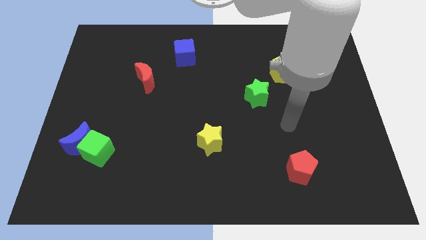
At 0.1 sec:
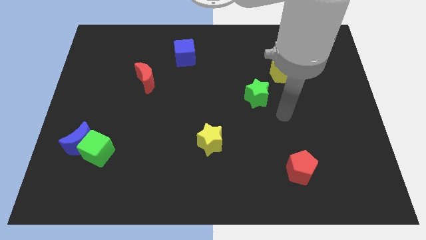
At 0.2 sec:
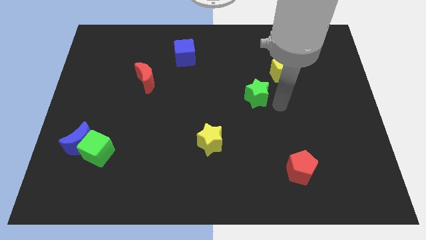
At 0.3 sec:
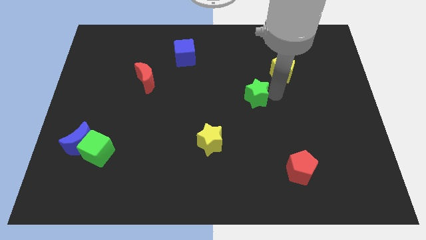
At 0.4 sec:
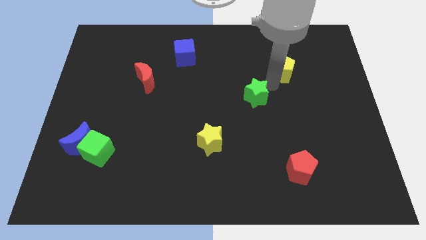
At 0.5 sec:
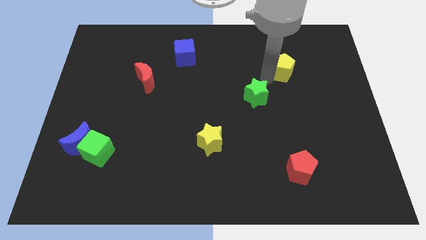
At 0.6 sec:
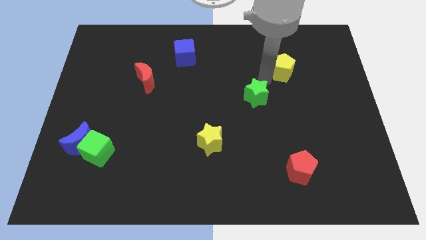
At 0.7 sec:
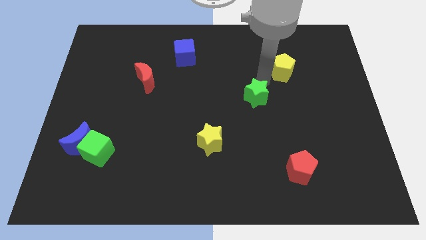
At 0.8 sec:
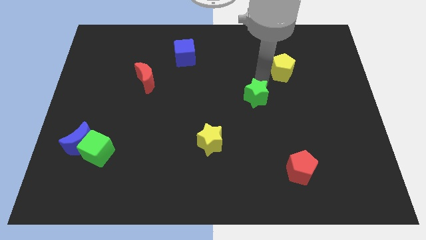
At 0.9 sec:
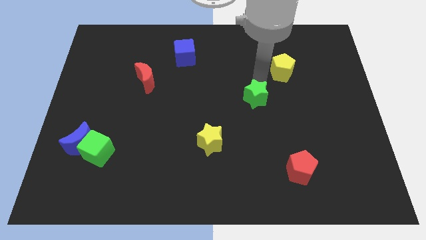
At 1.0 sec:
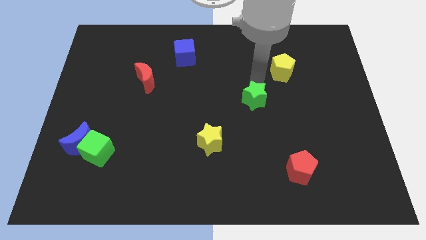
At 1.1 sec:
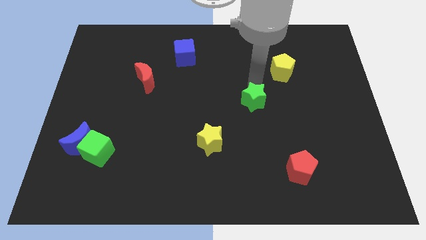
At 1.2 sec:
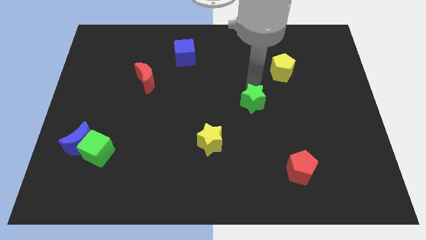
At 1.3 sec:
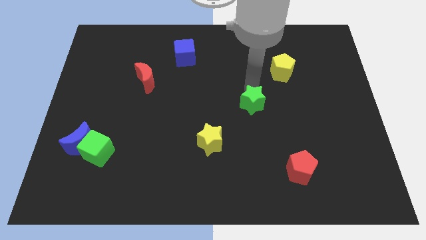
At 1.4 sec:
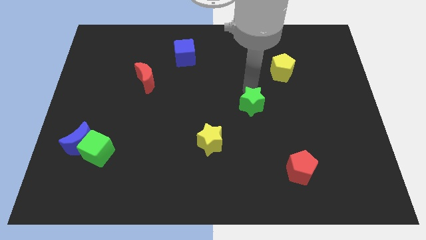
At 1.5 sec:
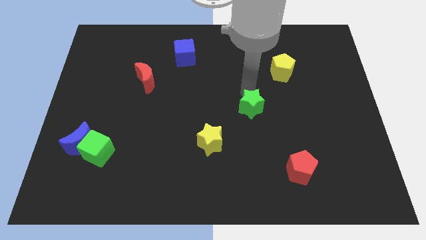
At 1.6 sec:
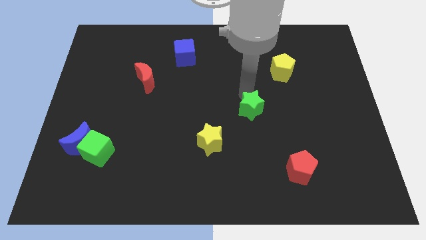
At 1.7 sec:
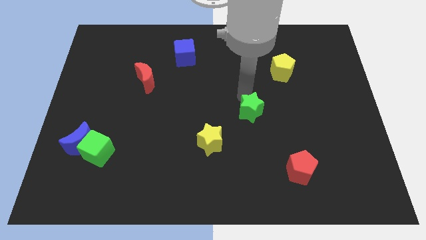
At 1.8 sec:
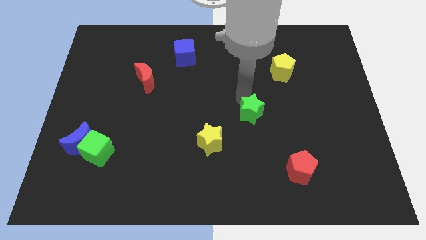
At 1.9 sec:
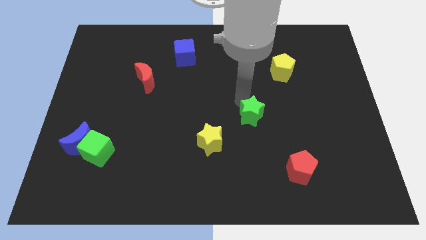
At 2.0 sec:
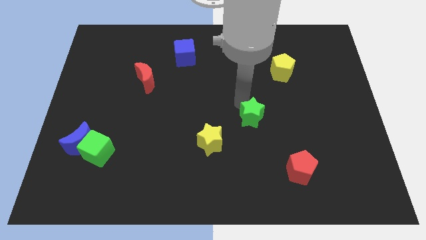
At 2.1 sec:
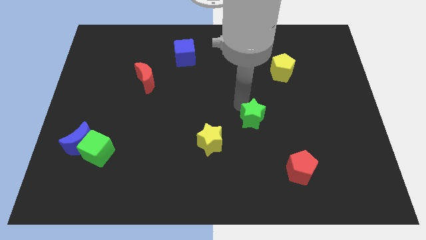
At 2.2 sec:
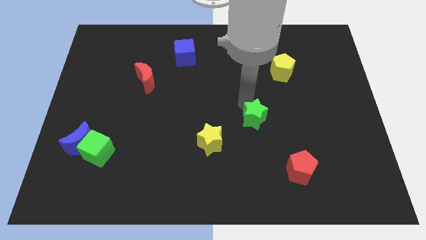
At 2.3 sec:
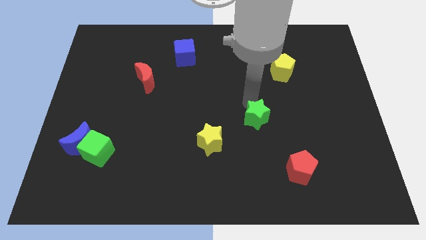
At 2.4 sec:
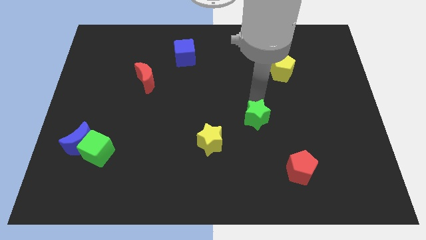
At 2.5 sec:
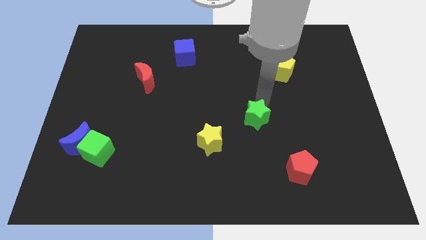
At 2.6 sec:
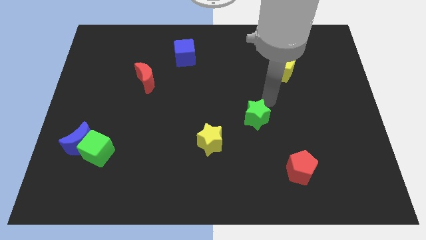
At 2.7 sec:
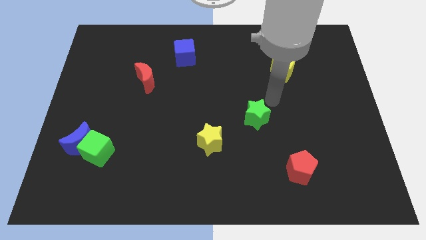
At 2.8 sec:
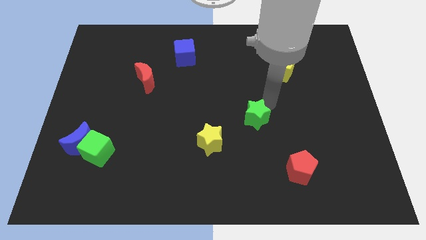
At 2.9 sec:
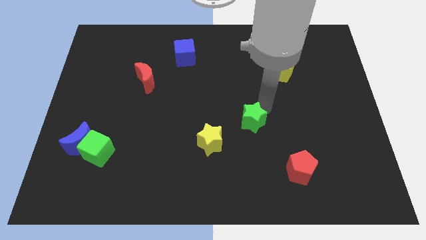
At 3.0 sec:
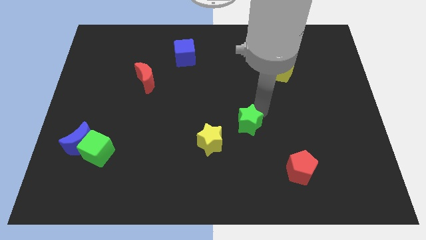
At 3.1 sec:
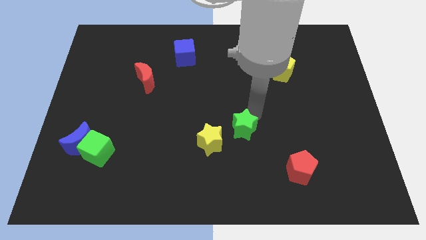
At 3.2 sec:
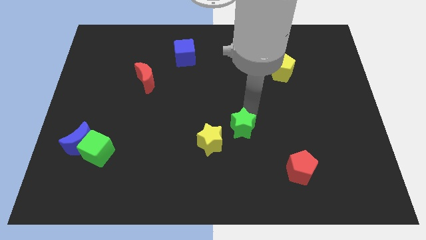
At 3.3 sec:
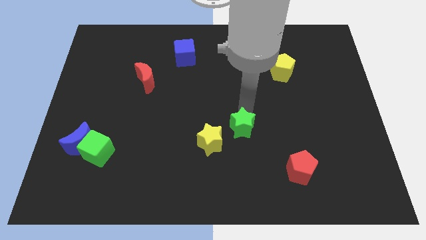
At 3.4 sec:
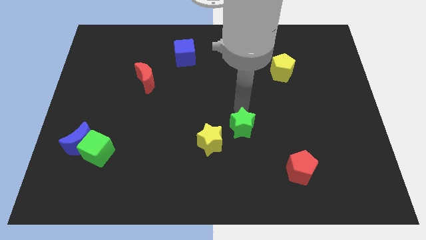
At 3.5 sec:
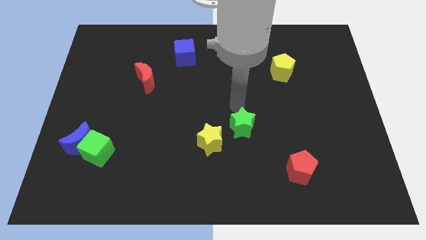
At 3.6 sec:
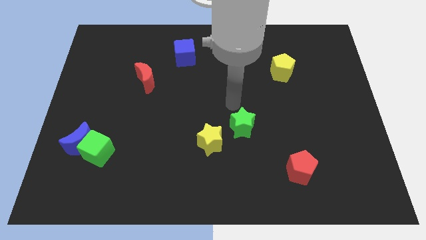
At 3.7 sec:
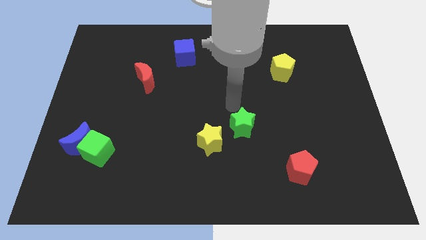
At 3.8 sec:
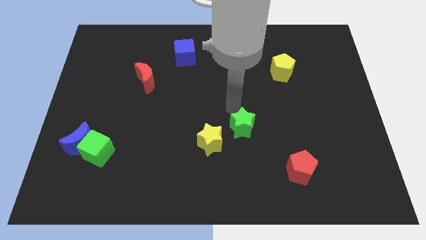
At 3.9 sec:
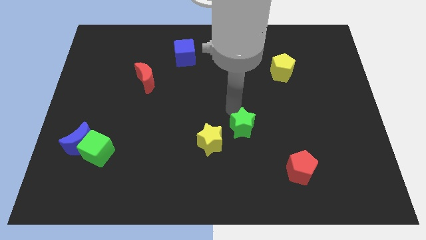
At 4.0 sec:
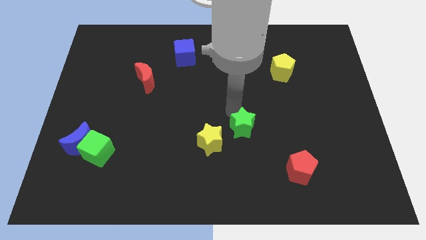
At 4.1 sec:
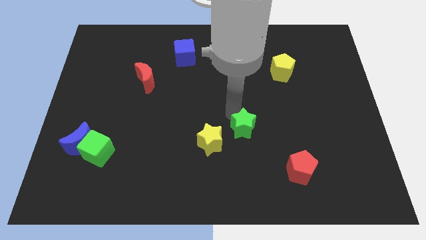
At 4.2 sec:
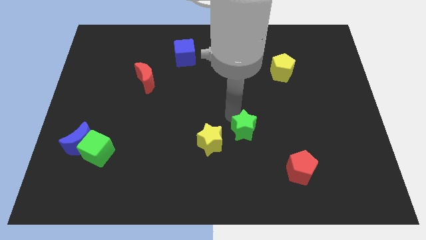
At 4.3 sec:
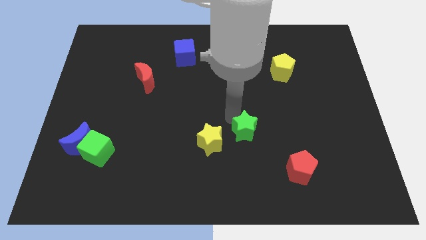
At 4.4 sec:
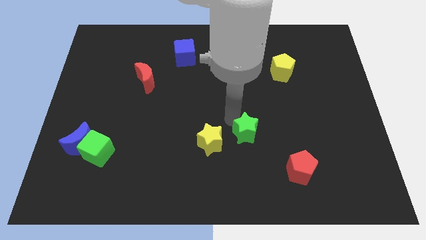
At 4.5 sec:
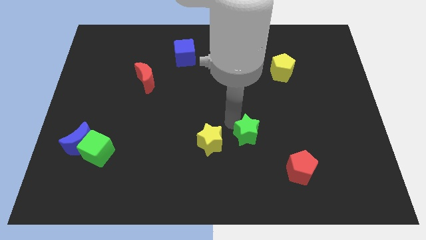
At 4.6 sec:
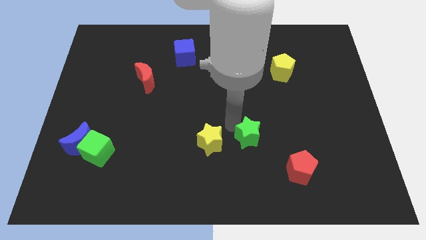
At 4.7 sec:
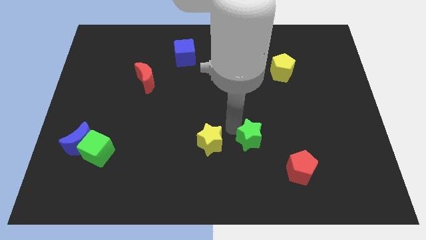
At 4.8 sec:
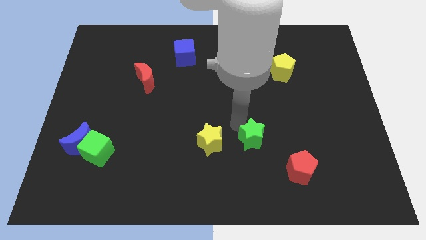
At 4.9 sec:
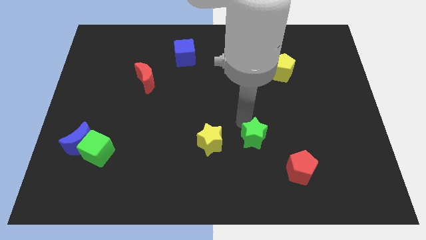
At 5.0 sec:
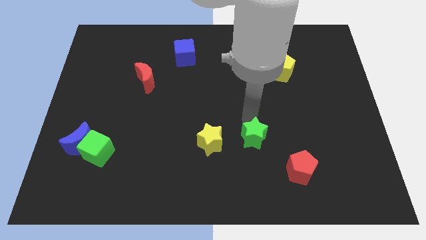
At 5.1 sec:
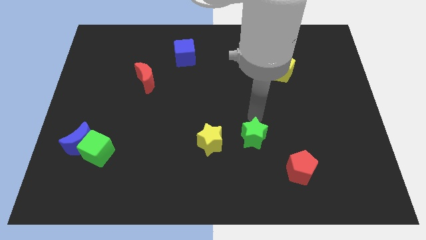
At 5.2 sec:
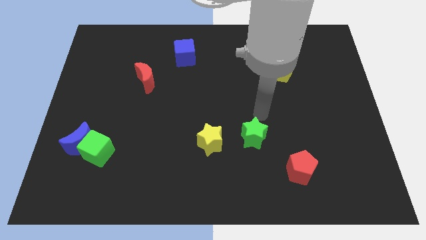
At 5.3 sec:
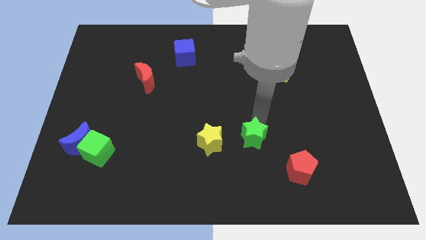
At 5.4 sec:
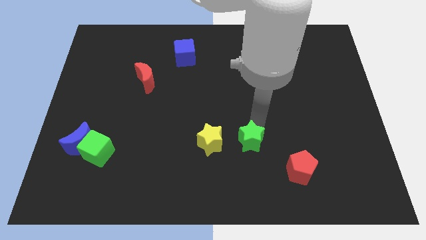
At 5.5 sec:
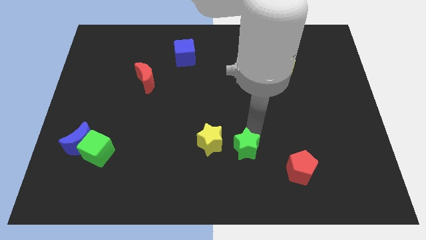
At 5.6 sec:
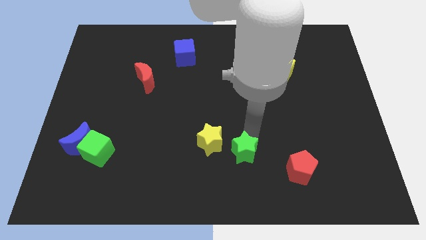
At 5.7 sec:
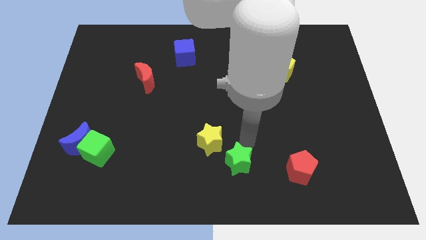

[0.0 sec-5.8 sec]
move the green star to the bottom side

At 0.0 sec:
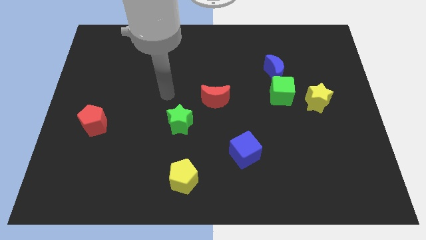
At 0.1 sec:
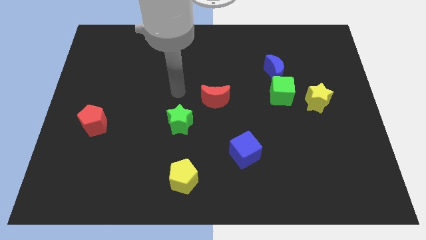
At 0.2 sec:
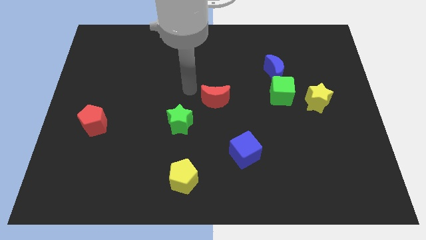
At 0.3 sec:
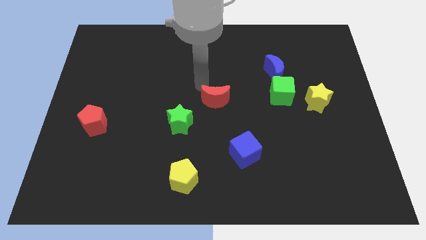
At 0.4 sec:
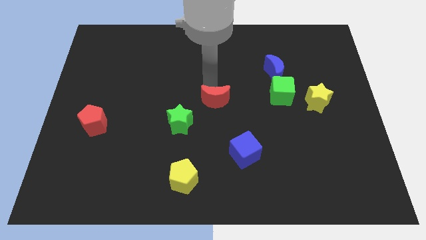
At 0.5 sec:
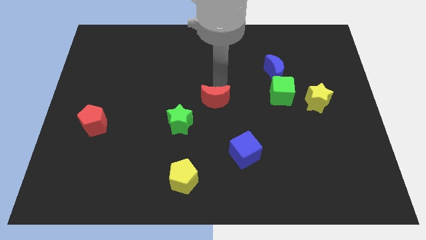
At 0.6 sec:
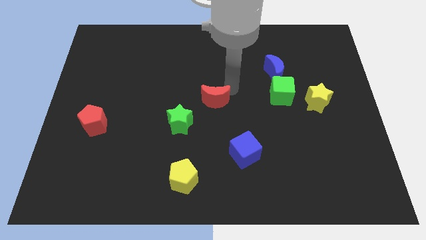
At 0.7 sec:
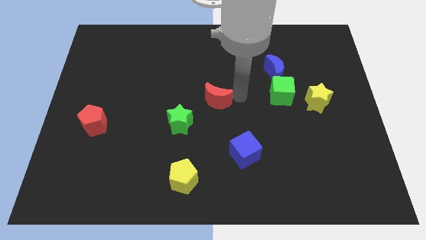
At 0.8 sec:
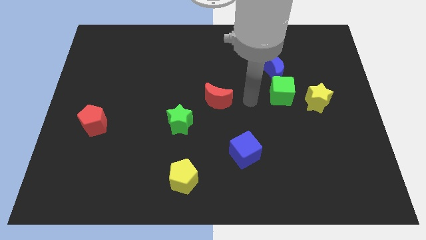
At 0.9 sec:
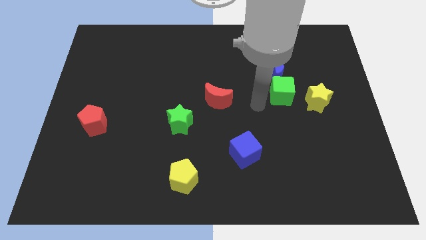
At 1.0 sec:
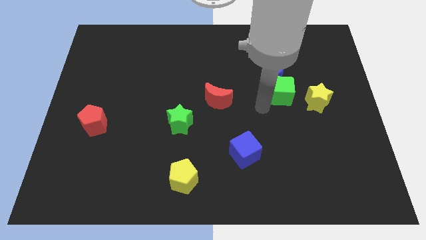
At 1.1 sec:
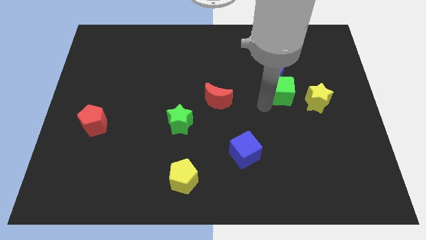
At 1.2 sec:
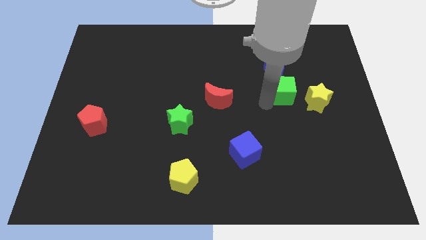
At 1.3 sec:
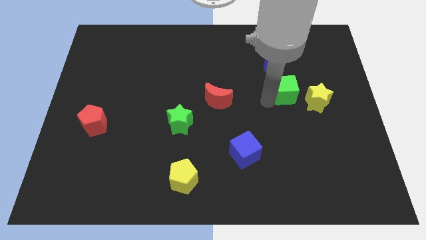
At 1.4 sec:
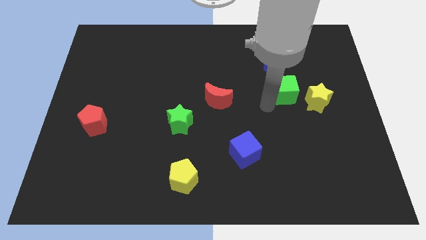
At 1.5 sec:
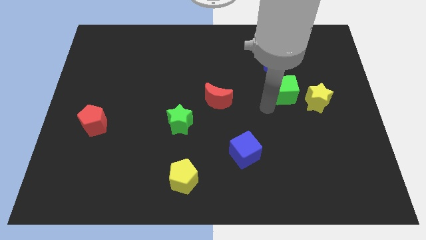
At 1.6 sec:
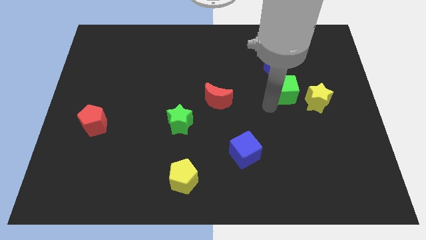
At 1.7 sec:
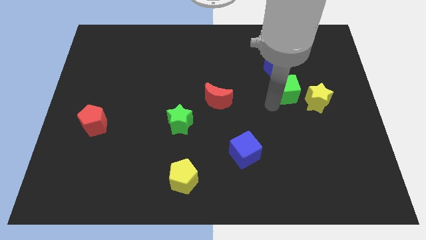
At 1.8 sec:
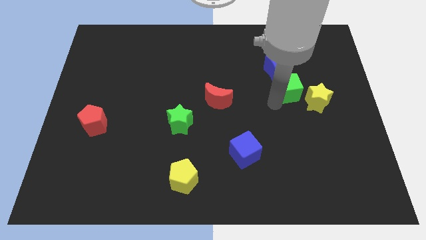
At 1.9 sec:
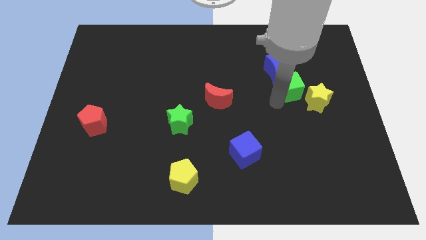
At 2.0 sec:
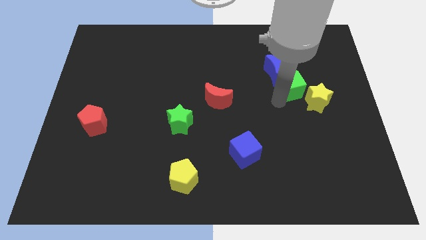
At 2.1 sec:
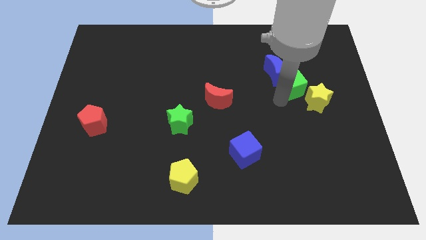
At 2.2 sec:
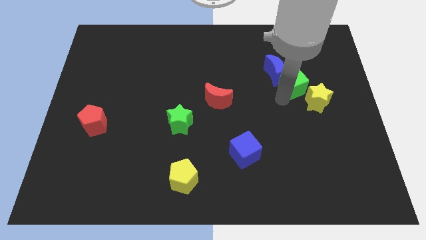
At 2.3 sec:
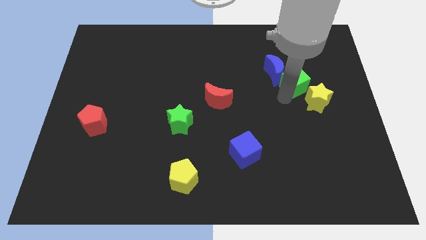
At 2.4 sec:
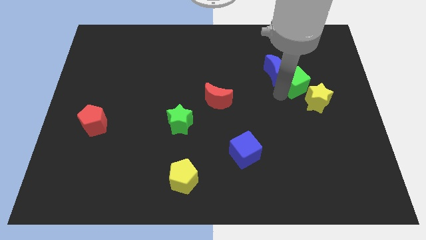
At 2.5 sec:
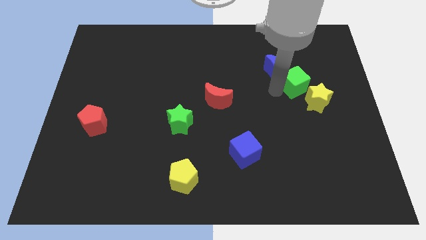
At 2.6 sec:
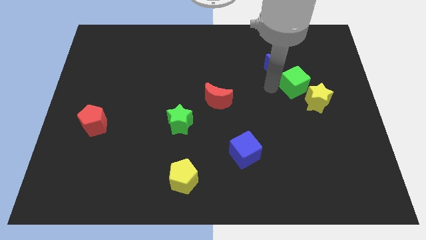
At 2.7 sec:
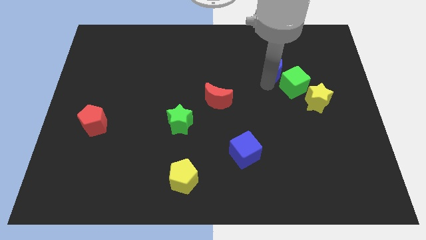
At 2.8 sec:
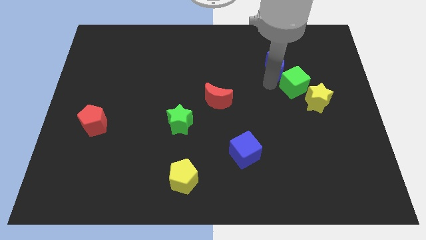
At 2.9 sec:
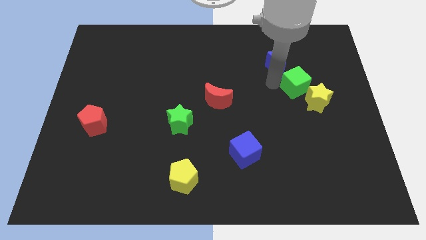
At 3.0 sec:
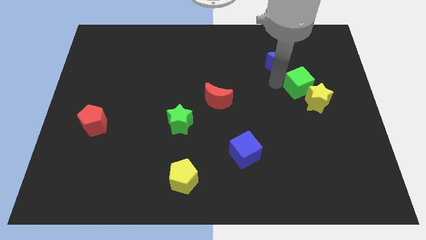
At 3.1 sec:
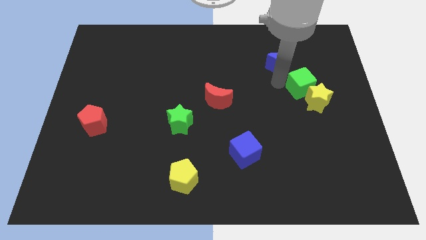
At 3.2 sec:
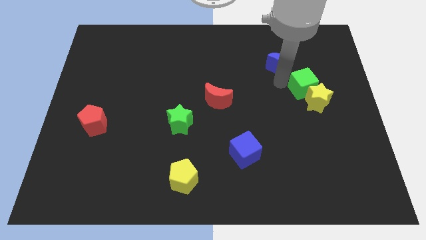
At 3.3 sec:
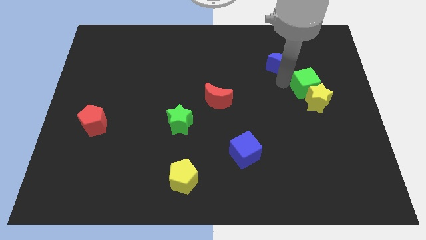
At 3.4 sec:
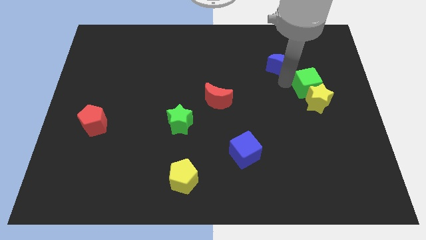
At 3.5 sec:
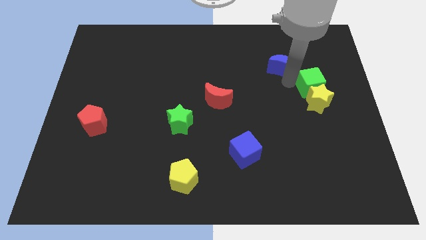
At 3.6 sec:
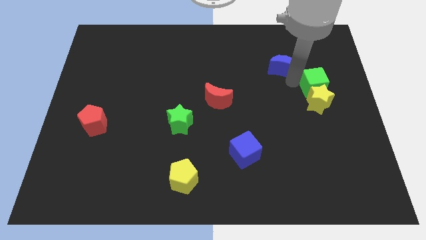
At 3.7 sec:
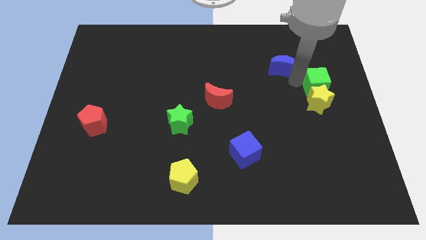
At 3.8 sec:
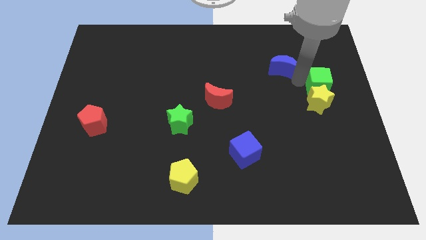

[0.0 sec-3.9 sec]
slide the green cube to the right side of the board
